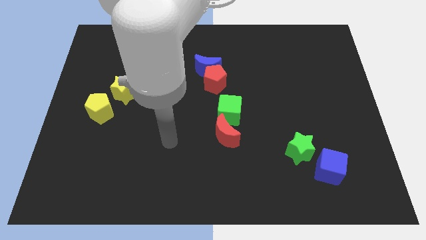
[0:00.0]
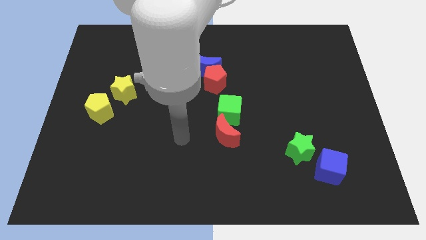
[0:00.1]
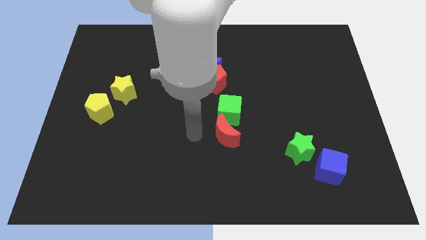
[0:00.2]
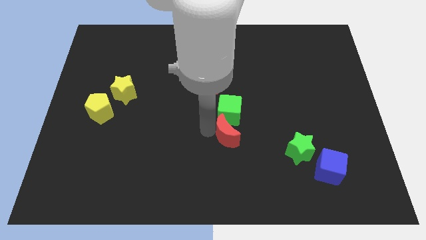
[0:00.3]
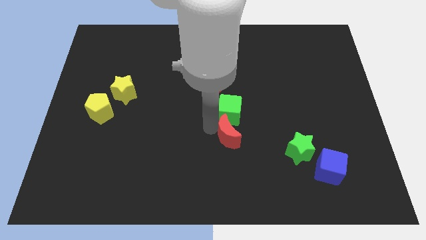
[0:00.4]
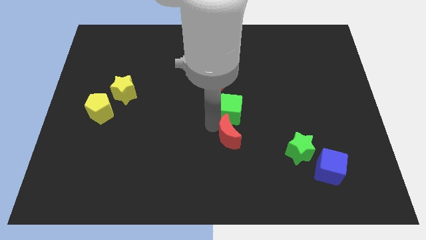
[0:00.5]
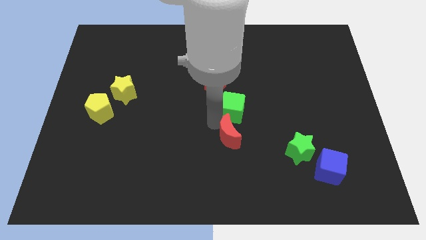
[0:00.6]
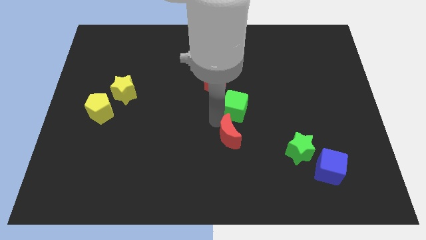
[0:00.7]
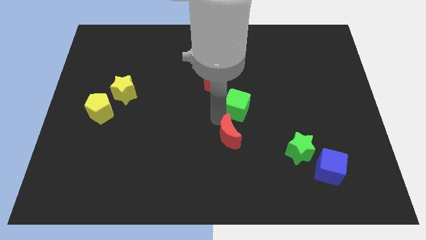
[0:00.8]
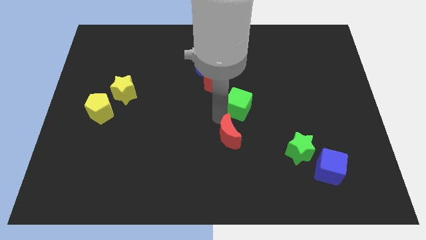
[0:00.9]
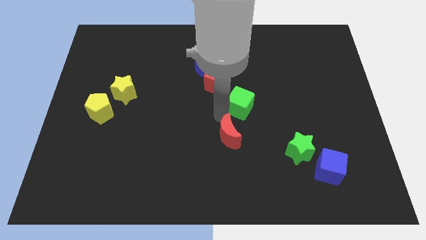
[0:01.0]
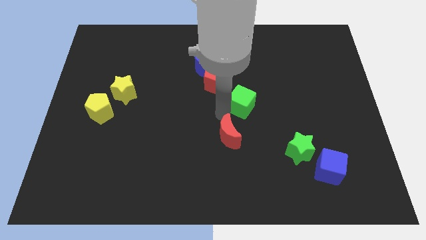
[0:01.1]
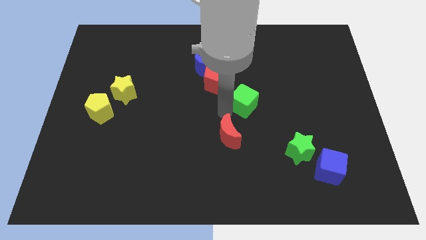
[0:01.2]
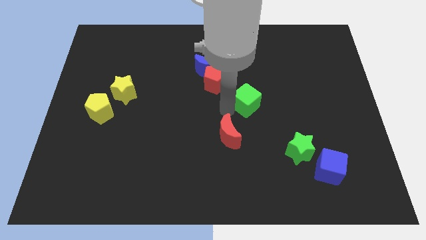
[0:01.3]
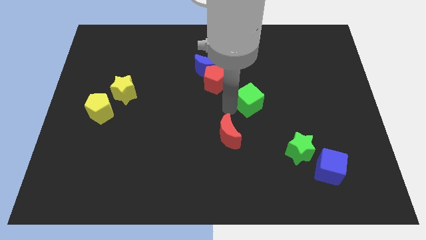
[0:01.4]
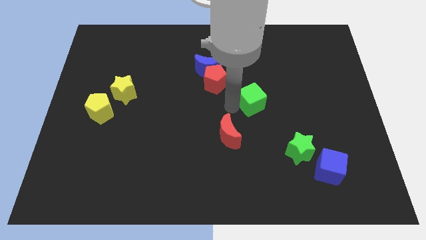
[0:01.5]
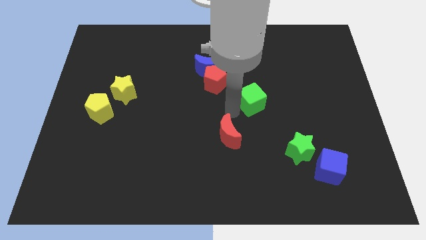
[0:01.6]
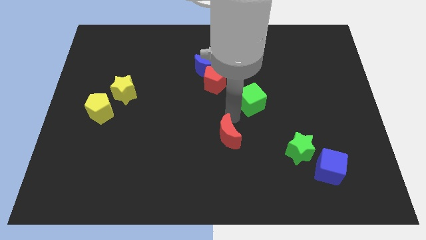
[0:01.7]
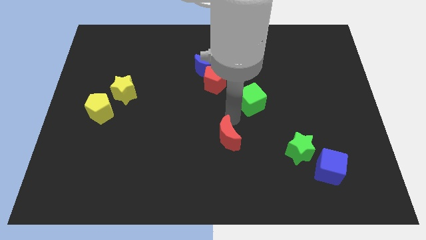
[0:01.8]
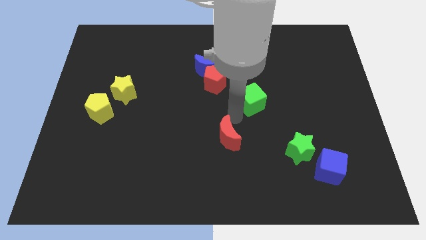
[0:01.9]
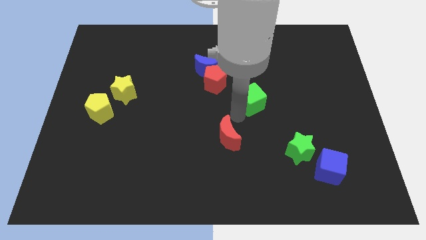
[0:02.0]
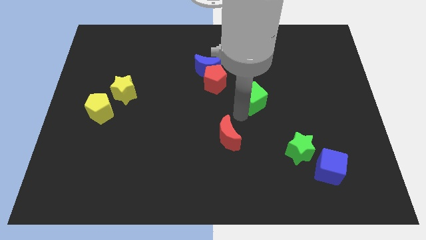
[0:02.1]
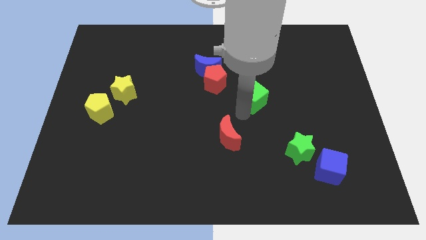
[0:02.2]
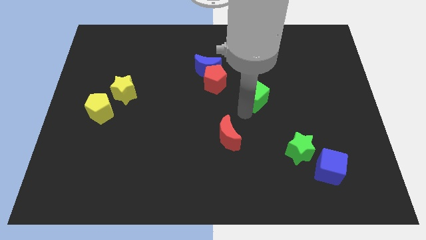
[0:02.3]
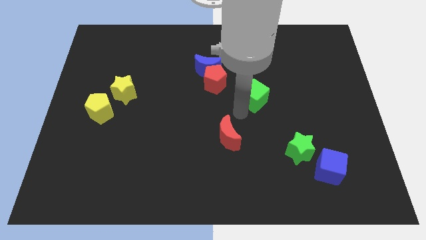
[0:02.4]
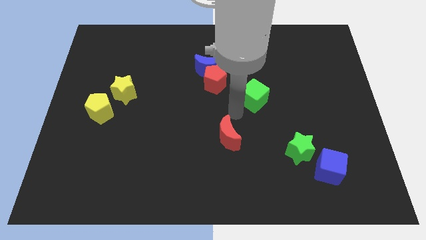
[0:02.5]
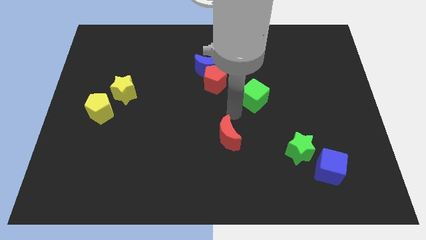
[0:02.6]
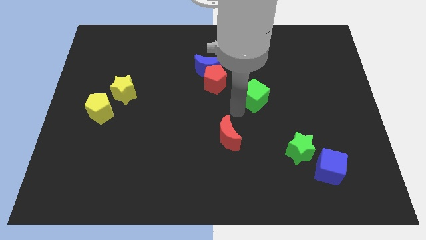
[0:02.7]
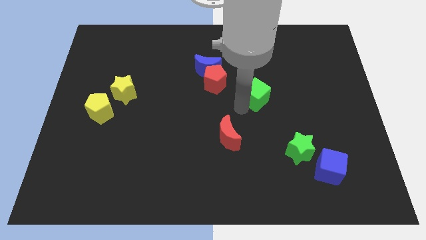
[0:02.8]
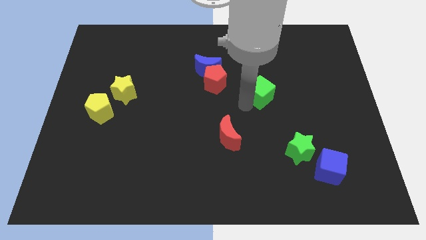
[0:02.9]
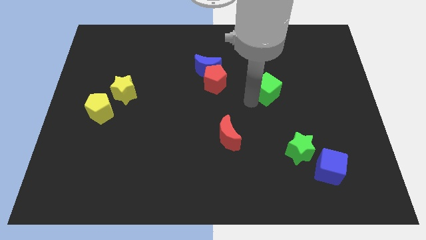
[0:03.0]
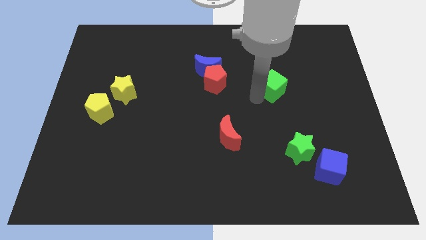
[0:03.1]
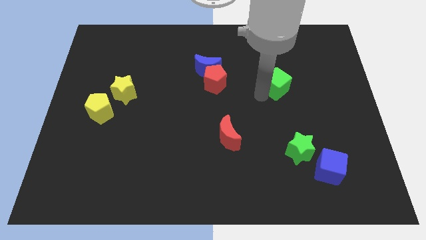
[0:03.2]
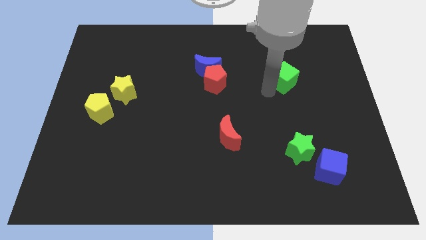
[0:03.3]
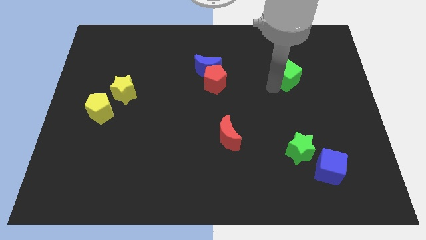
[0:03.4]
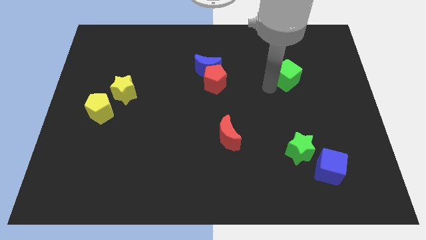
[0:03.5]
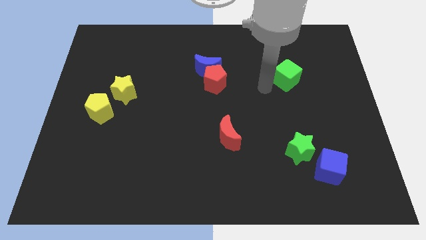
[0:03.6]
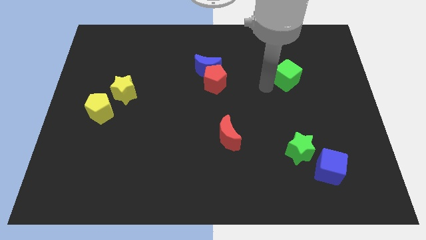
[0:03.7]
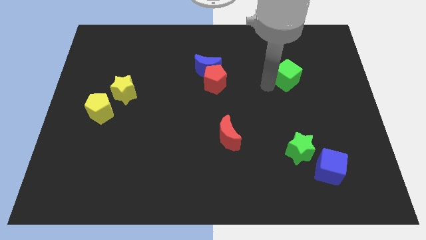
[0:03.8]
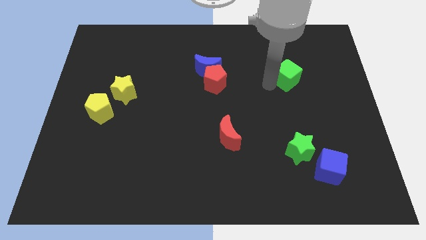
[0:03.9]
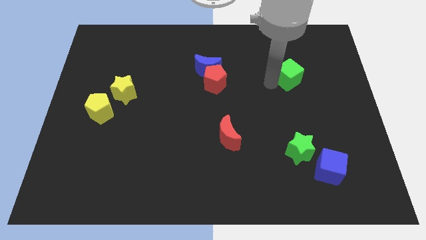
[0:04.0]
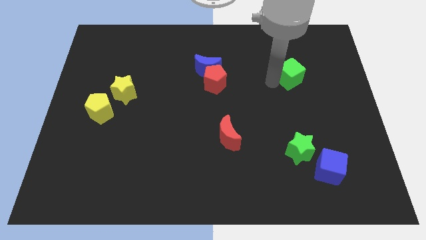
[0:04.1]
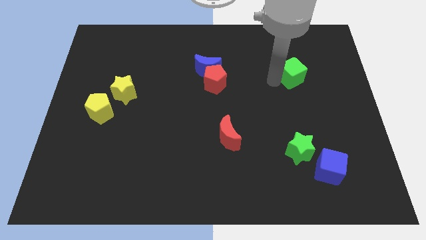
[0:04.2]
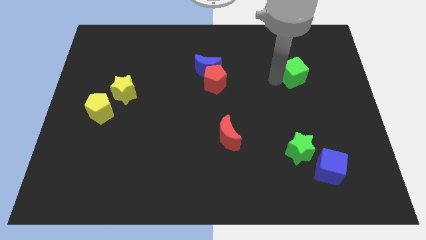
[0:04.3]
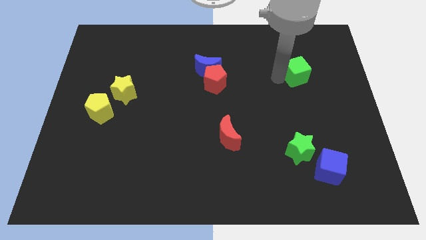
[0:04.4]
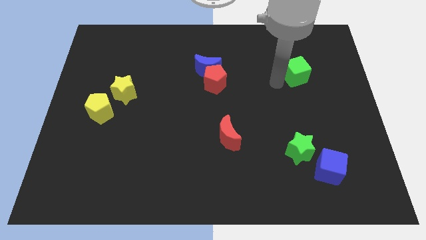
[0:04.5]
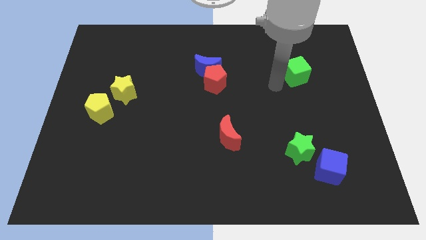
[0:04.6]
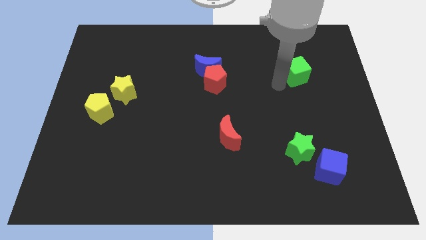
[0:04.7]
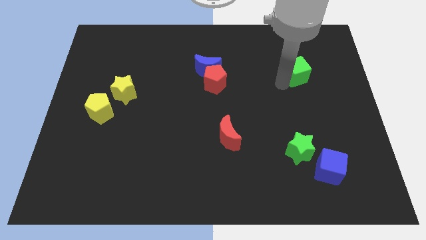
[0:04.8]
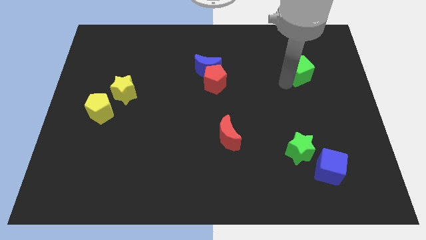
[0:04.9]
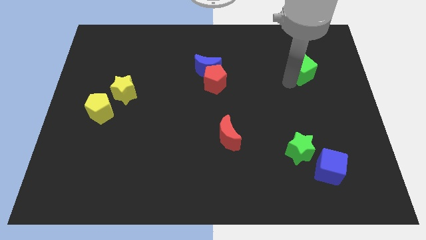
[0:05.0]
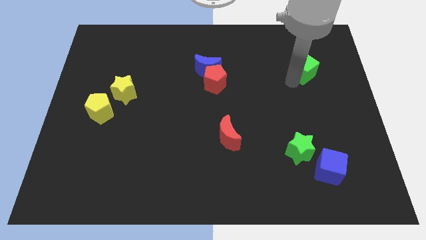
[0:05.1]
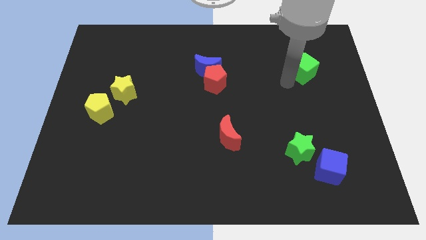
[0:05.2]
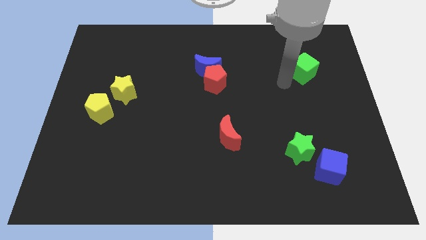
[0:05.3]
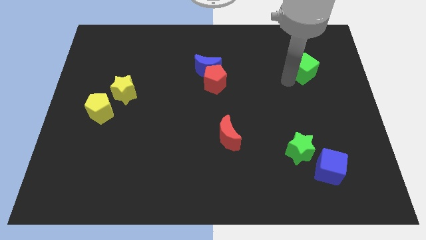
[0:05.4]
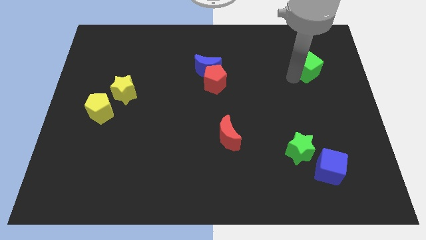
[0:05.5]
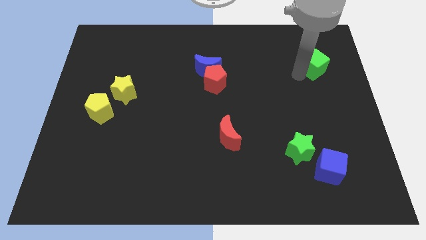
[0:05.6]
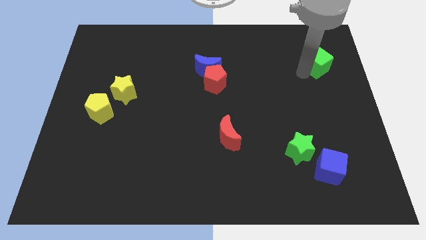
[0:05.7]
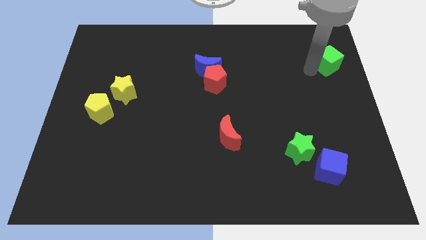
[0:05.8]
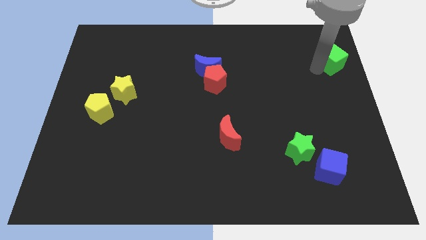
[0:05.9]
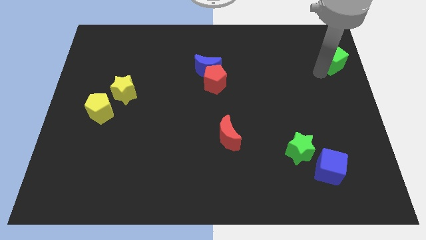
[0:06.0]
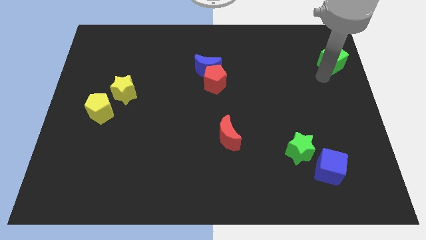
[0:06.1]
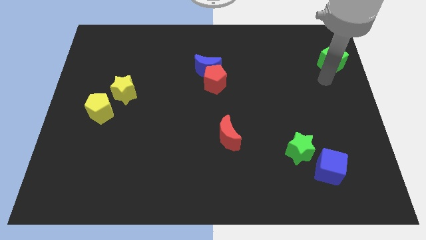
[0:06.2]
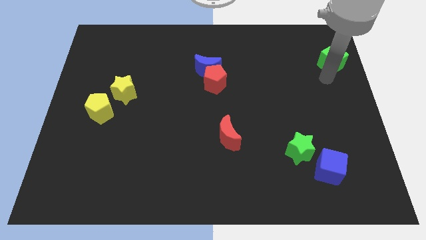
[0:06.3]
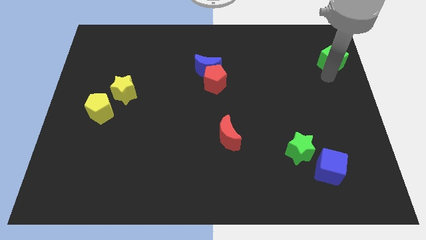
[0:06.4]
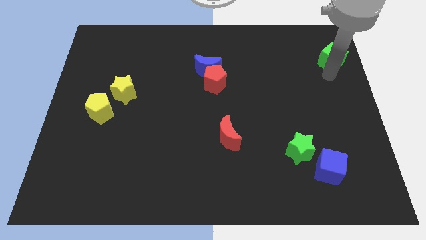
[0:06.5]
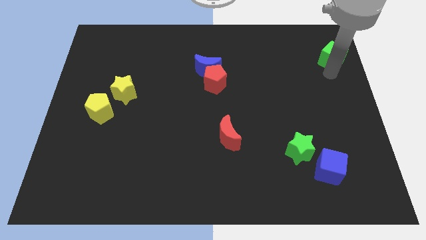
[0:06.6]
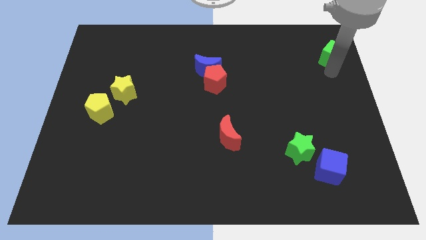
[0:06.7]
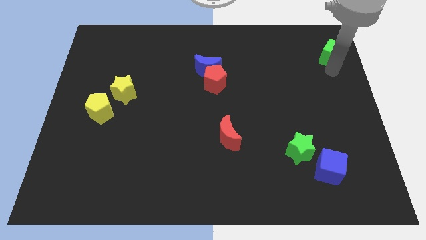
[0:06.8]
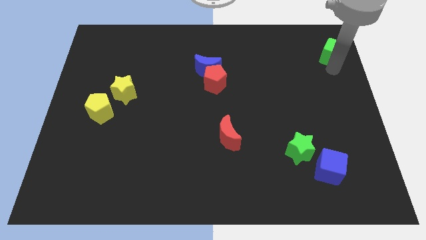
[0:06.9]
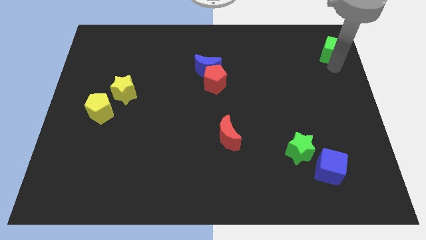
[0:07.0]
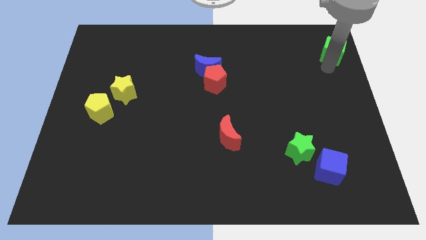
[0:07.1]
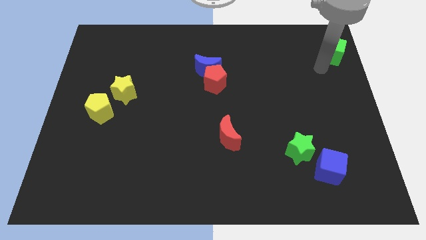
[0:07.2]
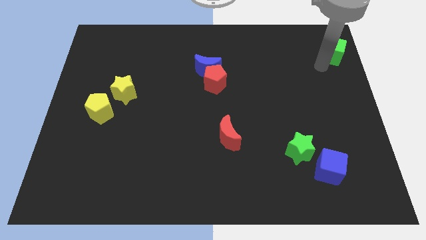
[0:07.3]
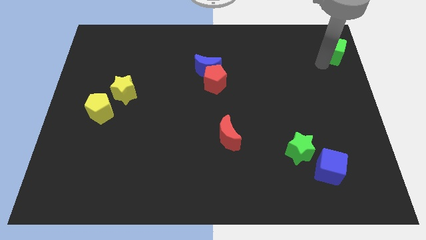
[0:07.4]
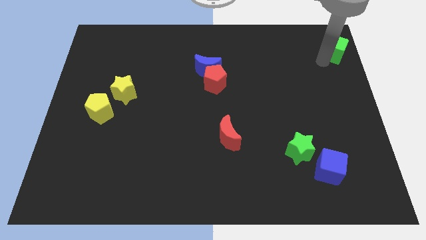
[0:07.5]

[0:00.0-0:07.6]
push the green cube to the top right
